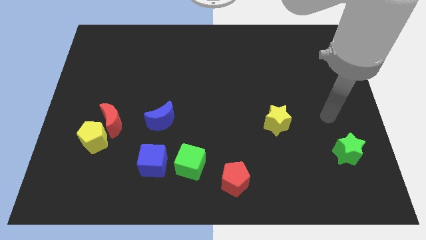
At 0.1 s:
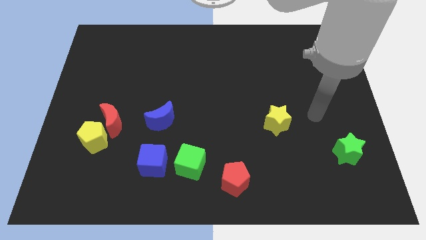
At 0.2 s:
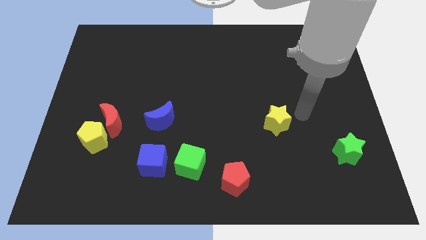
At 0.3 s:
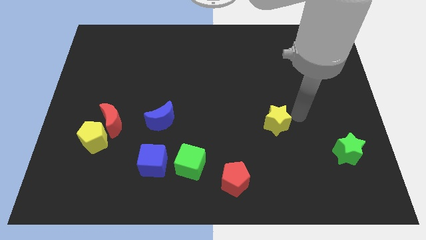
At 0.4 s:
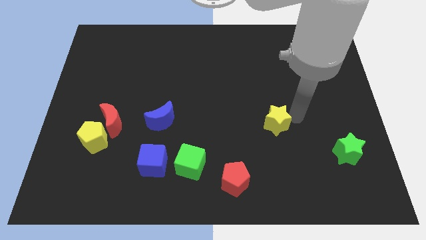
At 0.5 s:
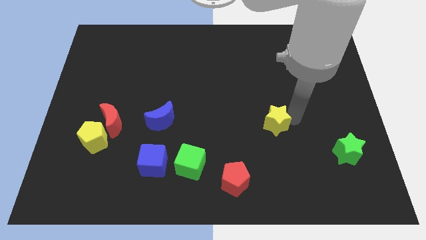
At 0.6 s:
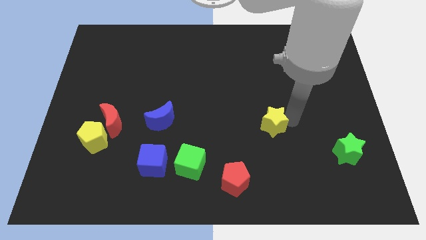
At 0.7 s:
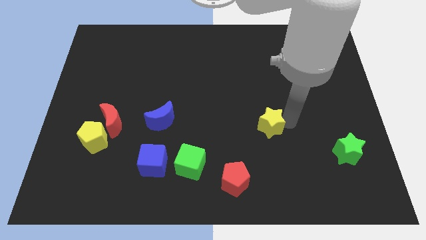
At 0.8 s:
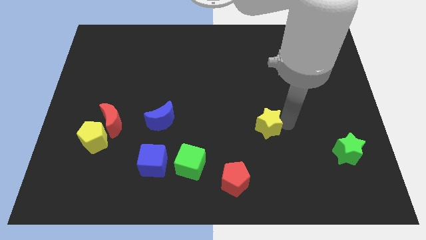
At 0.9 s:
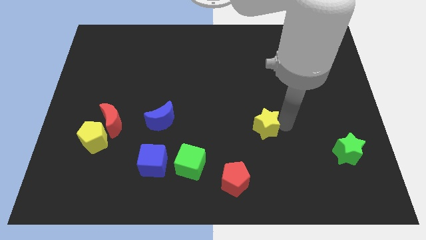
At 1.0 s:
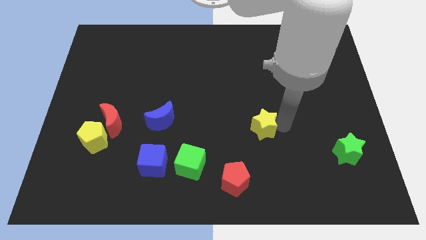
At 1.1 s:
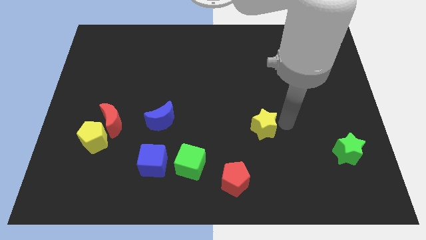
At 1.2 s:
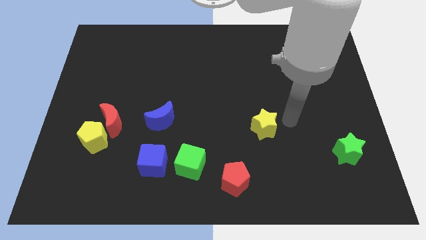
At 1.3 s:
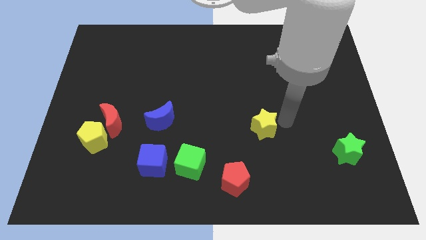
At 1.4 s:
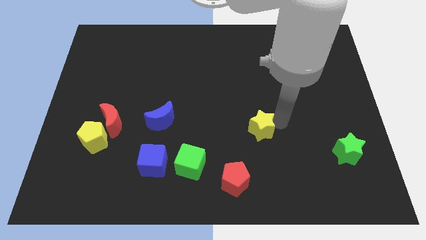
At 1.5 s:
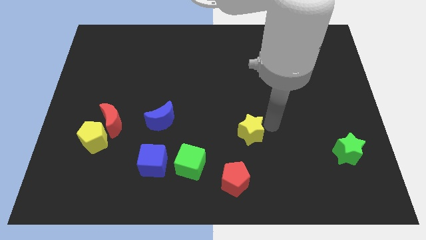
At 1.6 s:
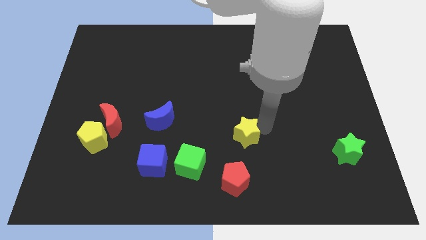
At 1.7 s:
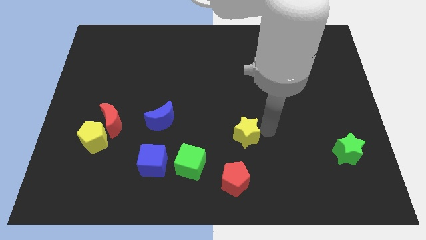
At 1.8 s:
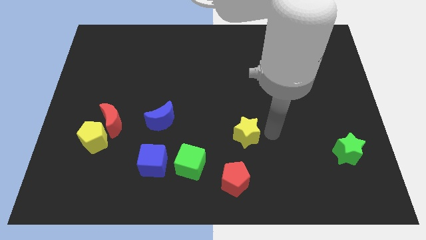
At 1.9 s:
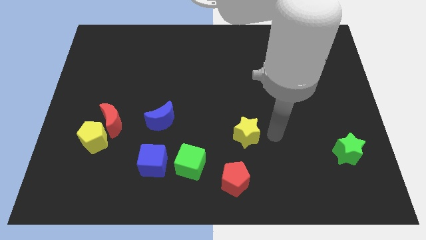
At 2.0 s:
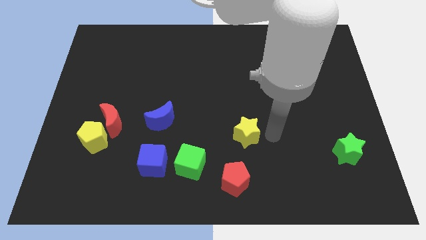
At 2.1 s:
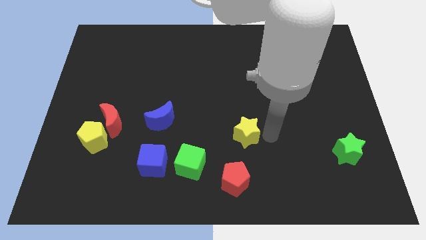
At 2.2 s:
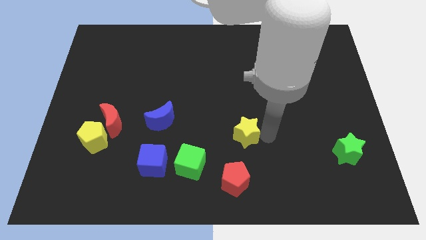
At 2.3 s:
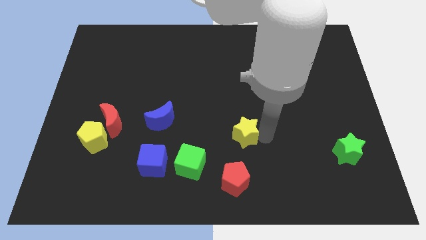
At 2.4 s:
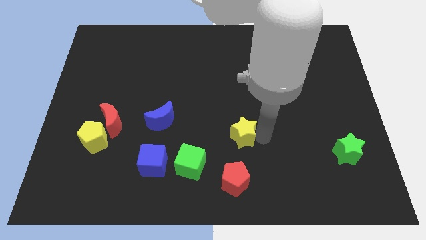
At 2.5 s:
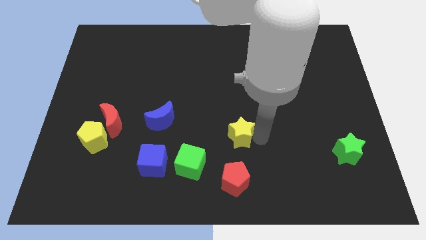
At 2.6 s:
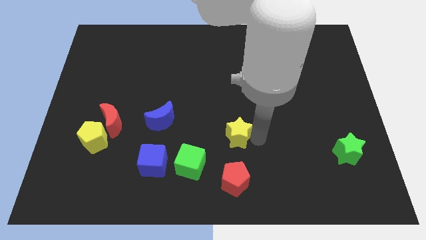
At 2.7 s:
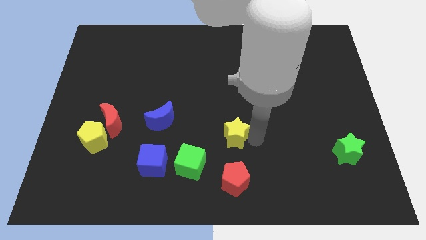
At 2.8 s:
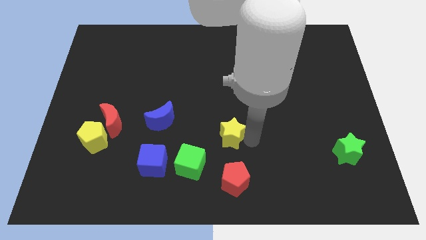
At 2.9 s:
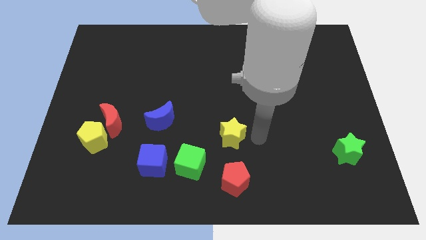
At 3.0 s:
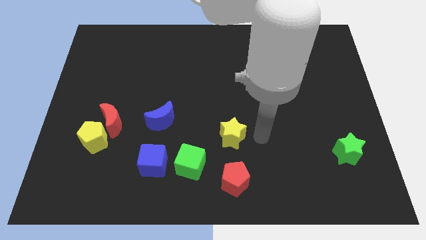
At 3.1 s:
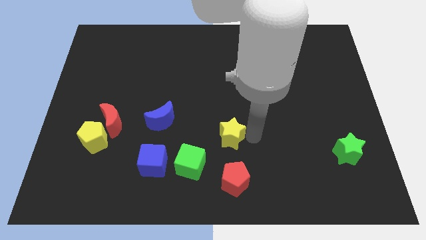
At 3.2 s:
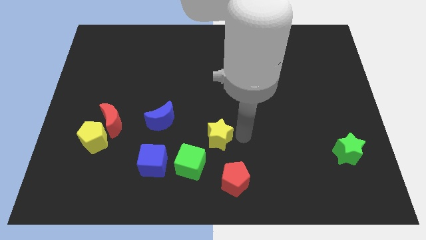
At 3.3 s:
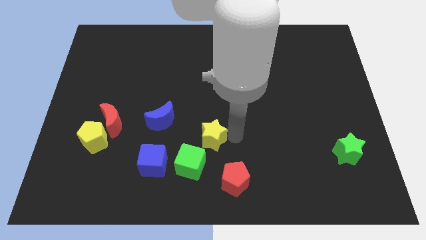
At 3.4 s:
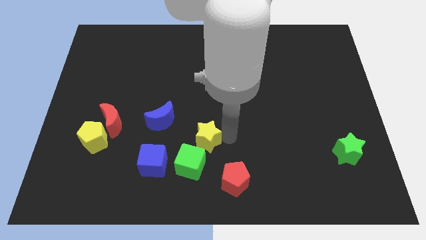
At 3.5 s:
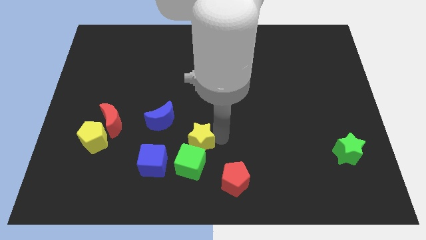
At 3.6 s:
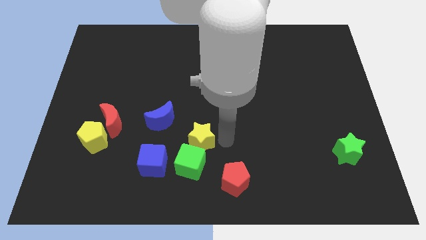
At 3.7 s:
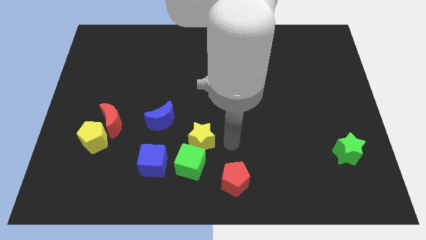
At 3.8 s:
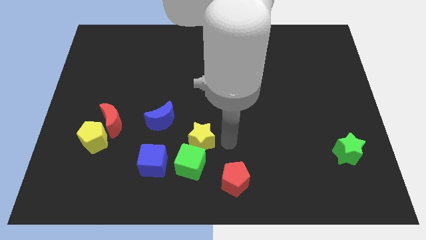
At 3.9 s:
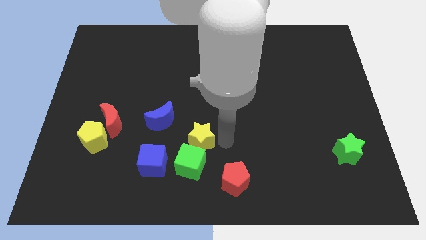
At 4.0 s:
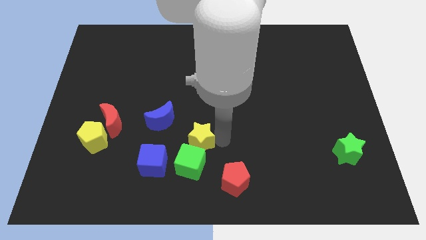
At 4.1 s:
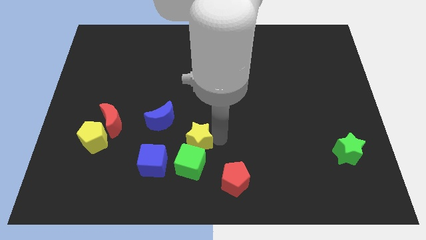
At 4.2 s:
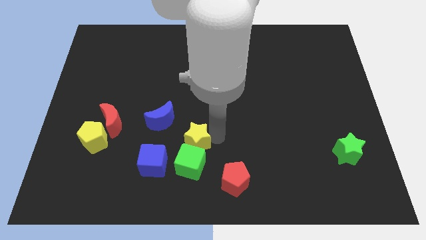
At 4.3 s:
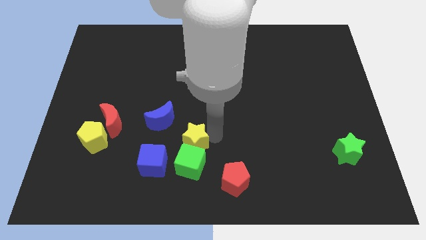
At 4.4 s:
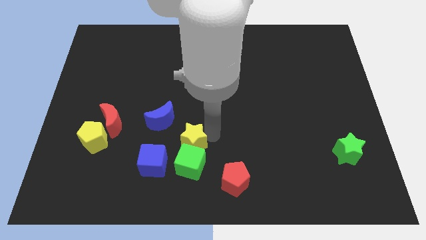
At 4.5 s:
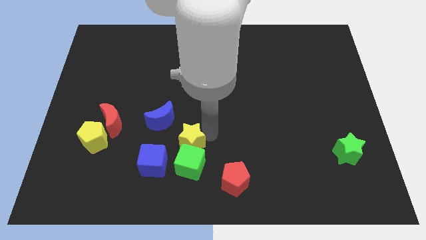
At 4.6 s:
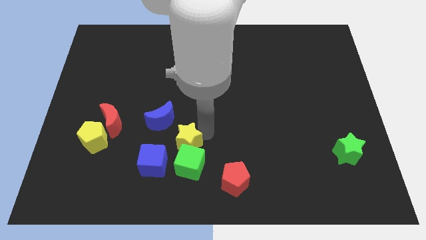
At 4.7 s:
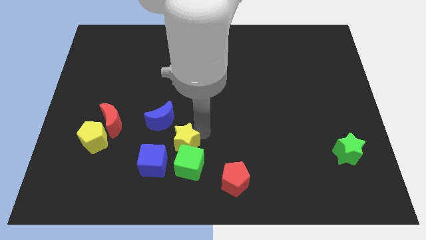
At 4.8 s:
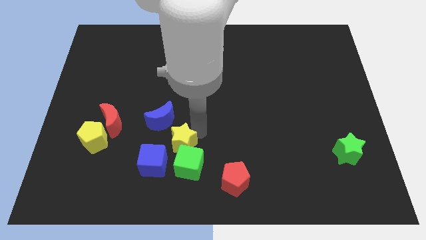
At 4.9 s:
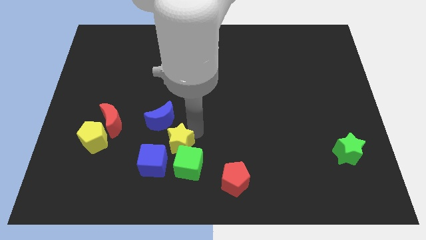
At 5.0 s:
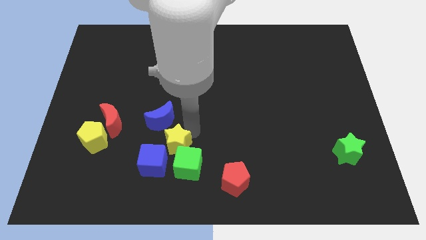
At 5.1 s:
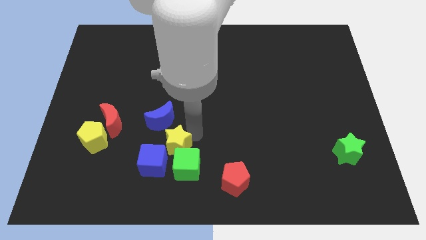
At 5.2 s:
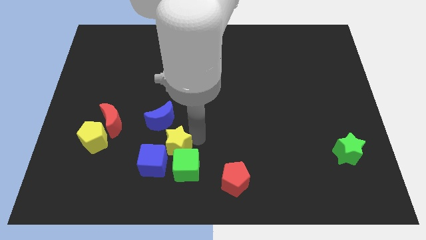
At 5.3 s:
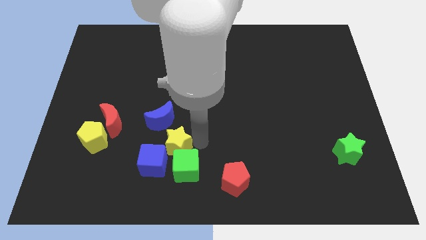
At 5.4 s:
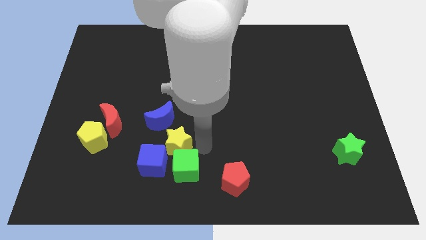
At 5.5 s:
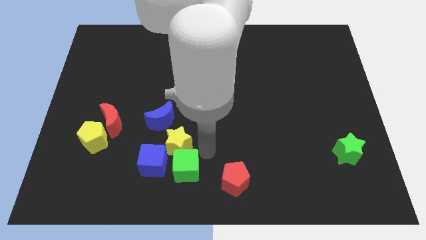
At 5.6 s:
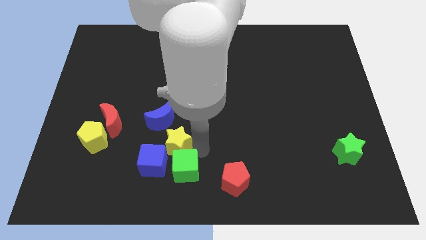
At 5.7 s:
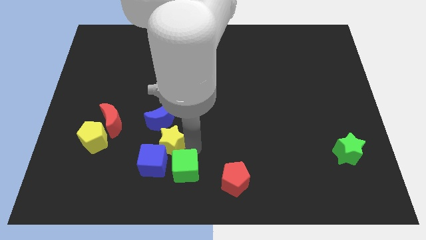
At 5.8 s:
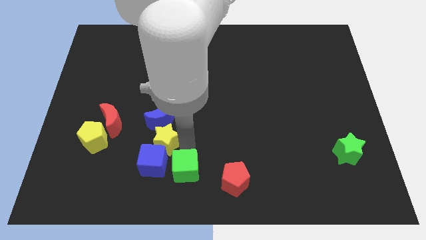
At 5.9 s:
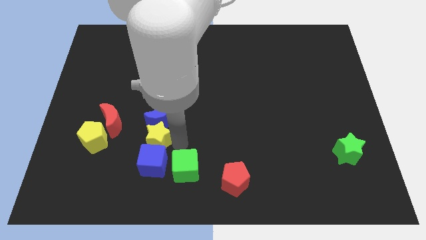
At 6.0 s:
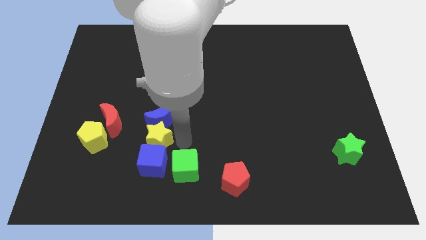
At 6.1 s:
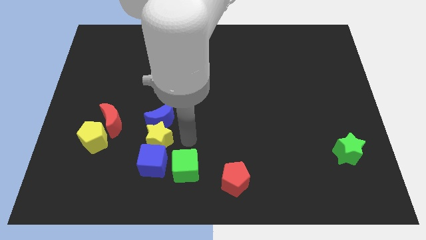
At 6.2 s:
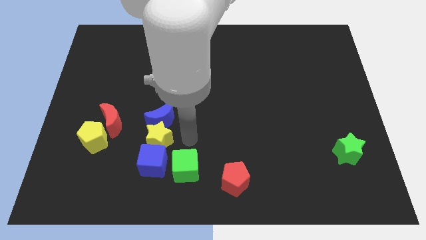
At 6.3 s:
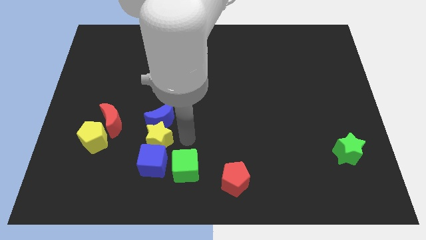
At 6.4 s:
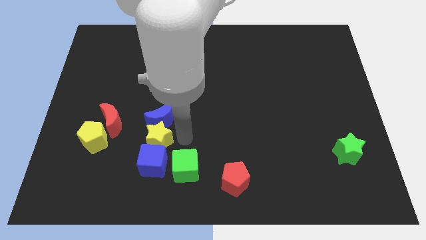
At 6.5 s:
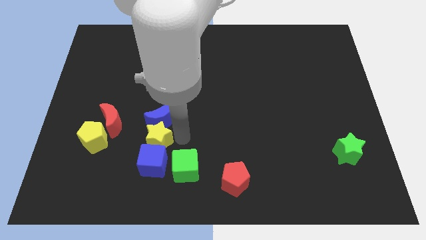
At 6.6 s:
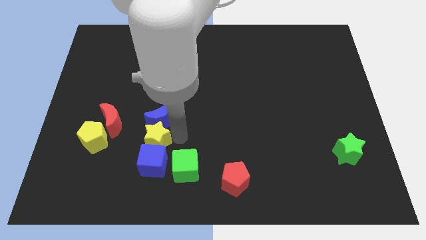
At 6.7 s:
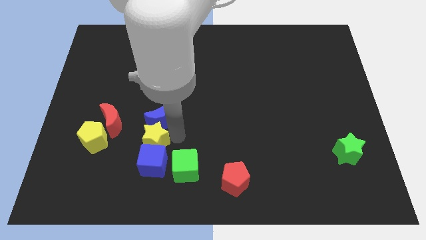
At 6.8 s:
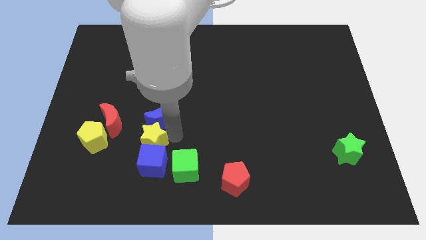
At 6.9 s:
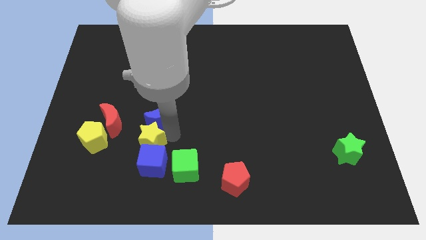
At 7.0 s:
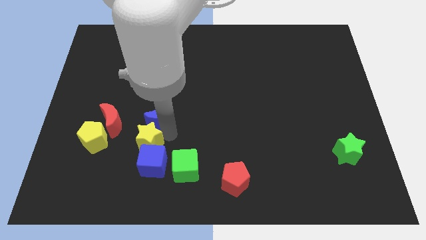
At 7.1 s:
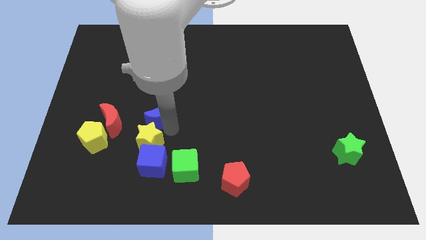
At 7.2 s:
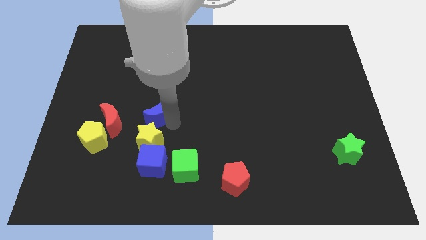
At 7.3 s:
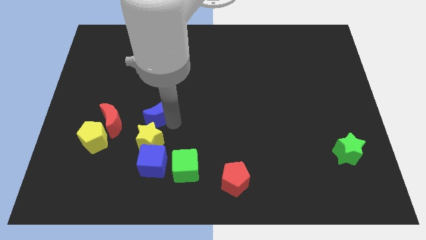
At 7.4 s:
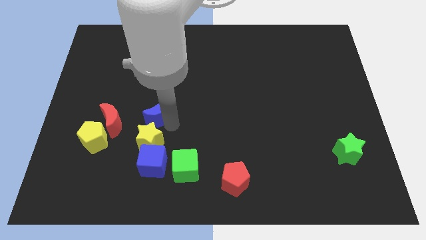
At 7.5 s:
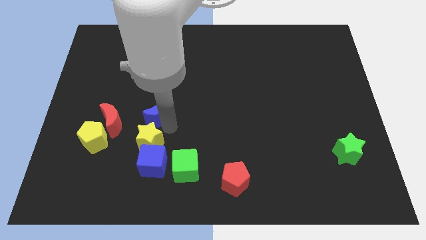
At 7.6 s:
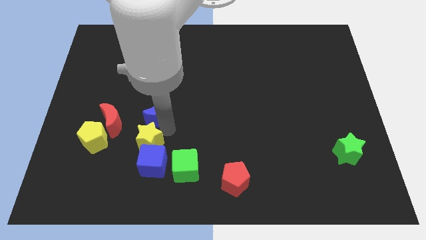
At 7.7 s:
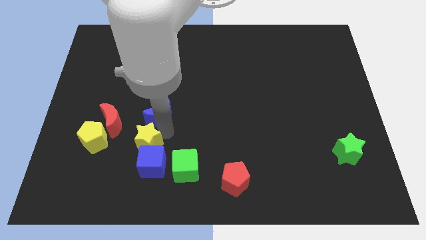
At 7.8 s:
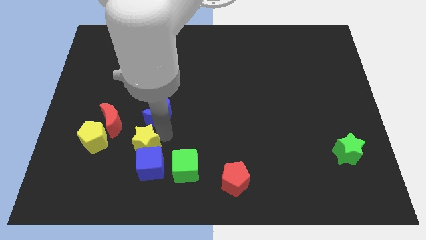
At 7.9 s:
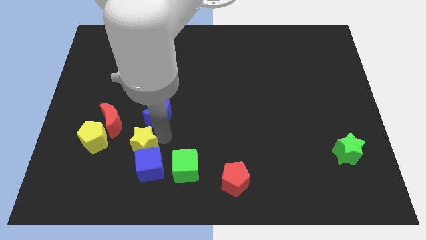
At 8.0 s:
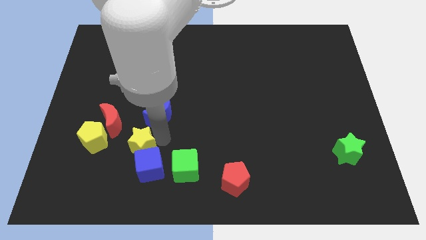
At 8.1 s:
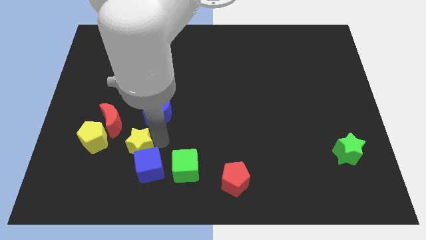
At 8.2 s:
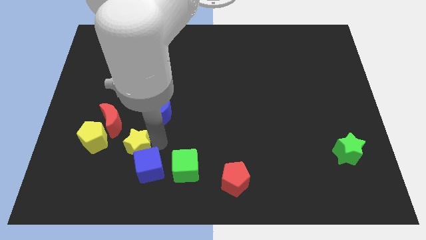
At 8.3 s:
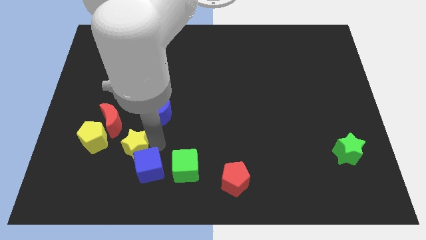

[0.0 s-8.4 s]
slide the yellow star left of the green cube
